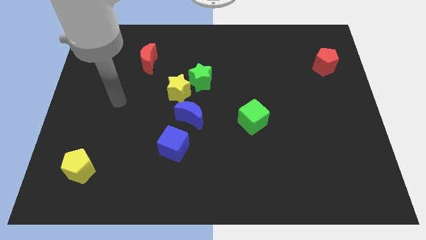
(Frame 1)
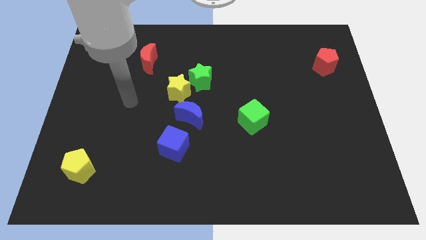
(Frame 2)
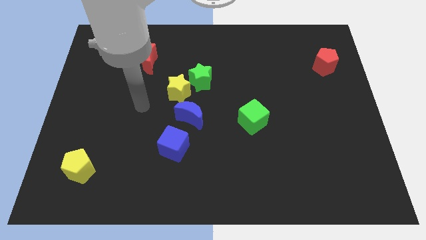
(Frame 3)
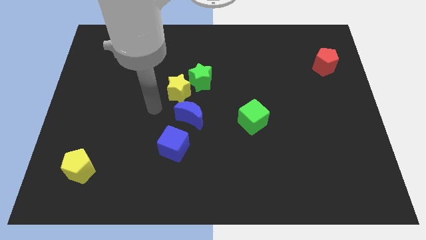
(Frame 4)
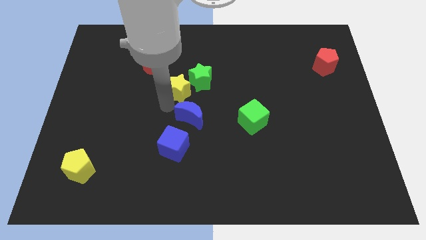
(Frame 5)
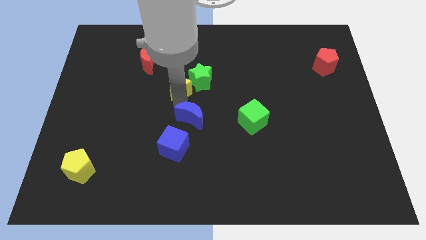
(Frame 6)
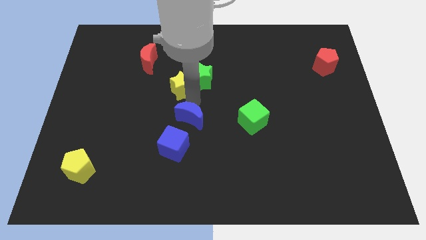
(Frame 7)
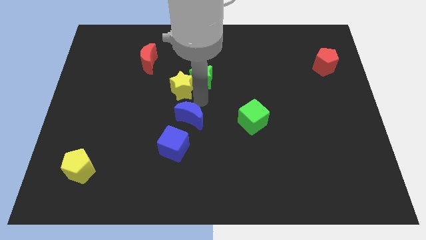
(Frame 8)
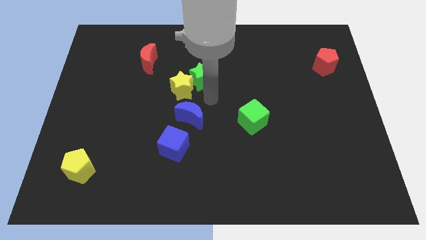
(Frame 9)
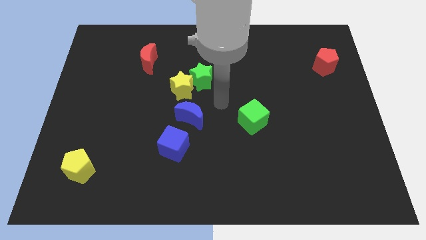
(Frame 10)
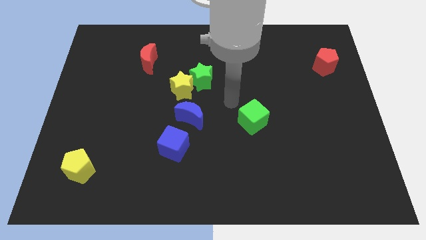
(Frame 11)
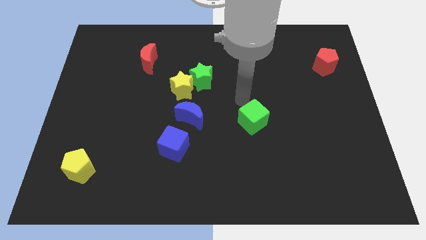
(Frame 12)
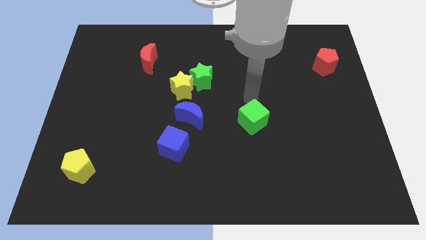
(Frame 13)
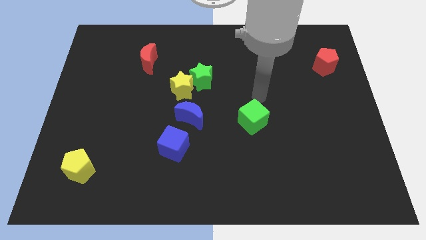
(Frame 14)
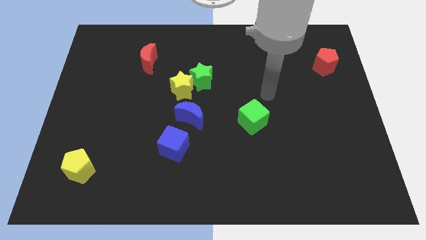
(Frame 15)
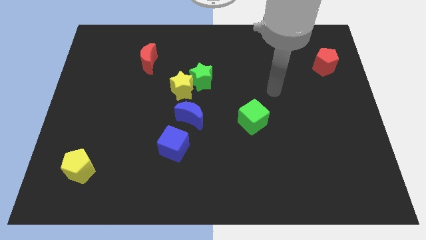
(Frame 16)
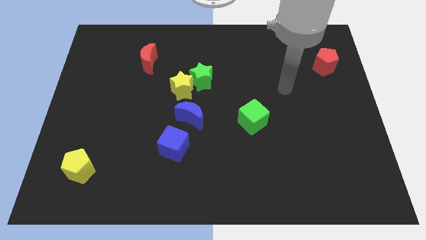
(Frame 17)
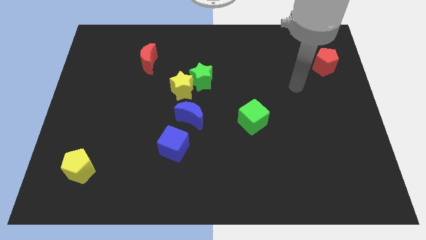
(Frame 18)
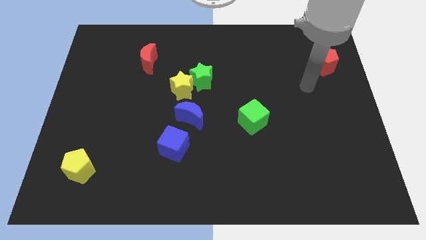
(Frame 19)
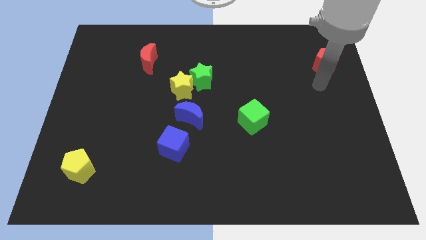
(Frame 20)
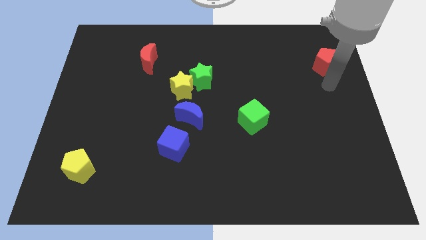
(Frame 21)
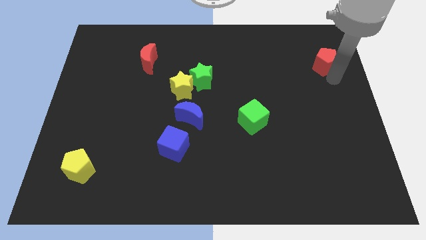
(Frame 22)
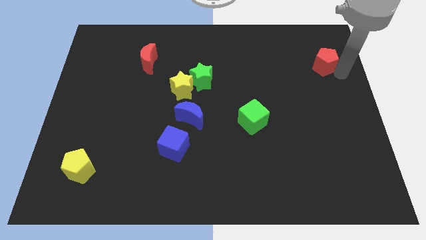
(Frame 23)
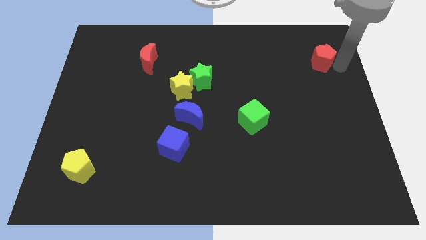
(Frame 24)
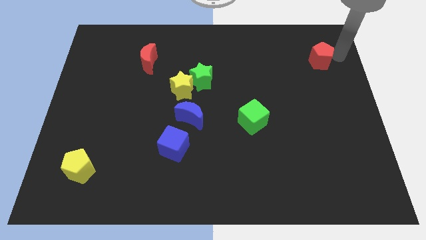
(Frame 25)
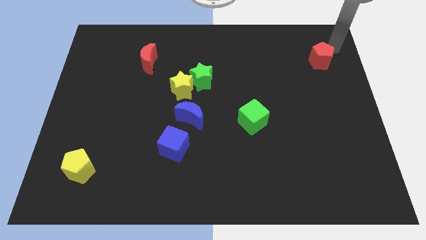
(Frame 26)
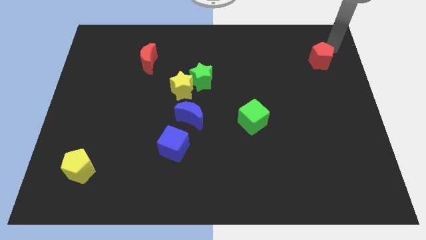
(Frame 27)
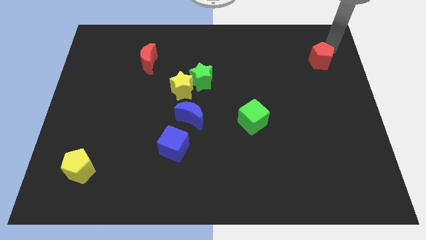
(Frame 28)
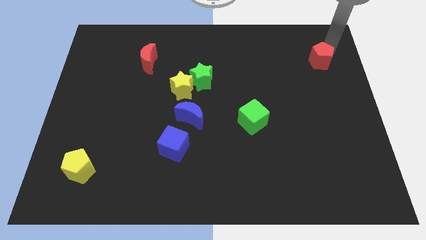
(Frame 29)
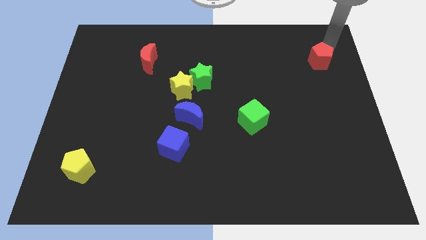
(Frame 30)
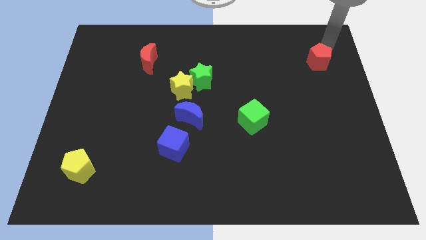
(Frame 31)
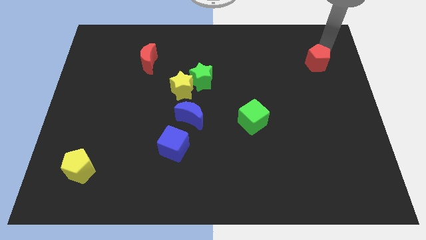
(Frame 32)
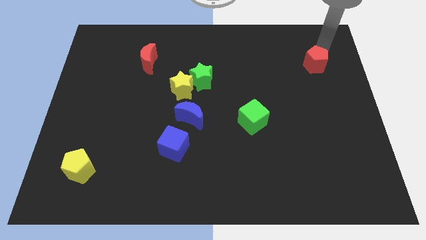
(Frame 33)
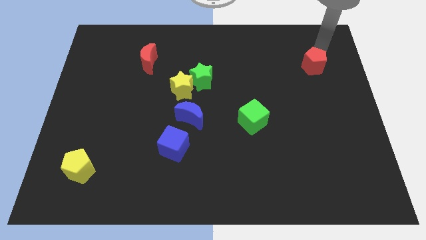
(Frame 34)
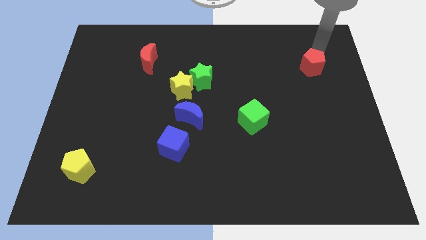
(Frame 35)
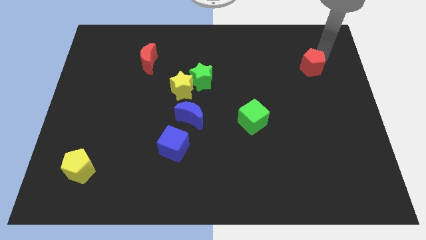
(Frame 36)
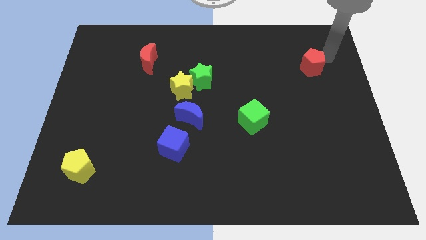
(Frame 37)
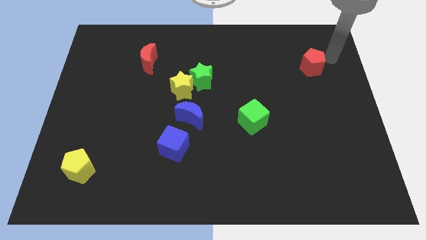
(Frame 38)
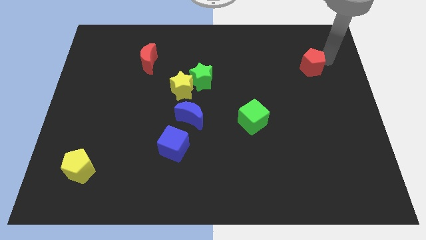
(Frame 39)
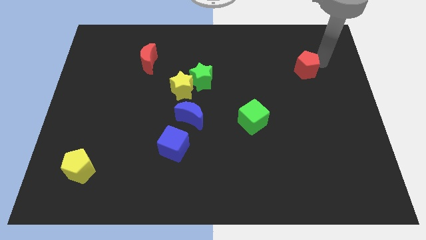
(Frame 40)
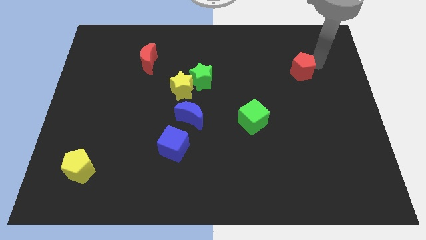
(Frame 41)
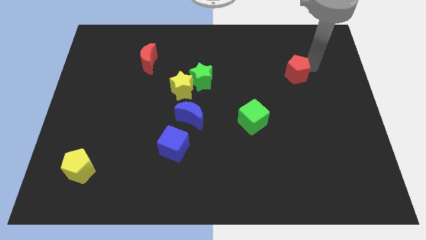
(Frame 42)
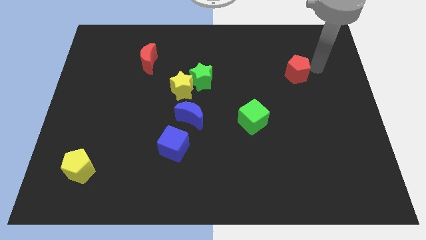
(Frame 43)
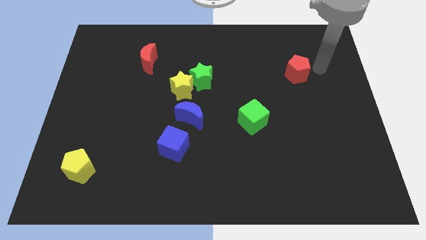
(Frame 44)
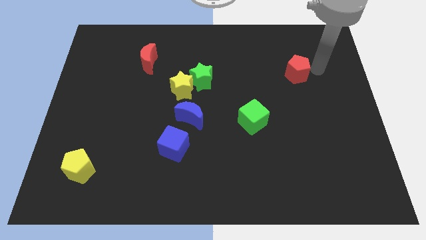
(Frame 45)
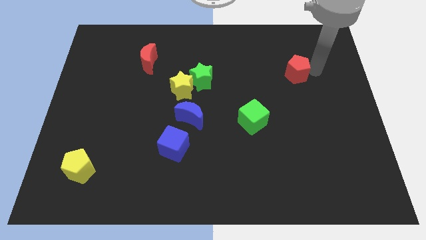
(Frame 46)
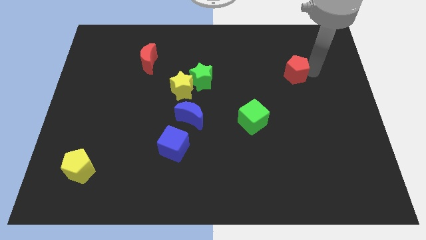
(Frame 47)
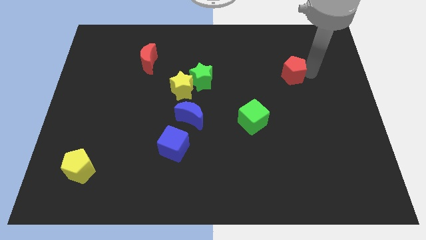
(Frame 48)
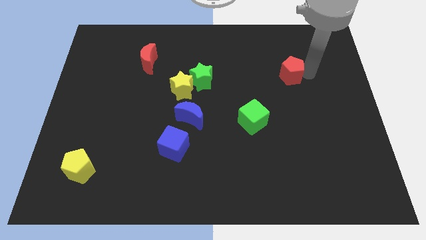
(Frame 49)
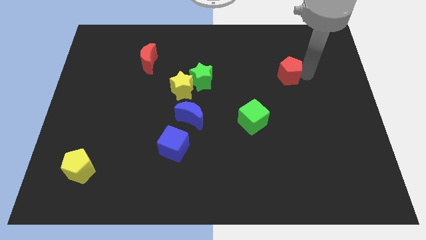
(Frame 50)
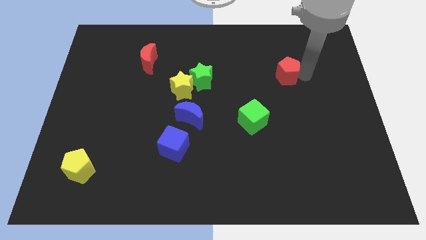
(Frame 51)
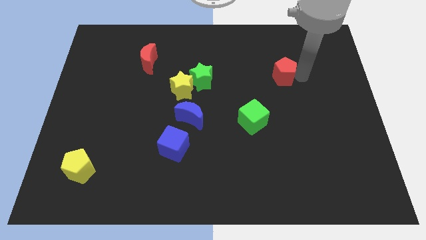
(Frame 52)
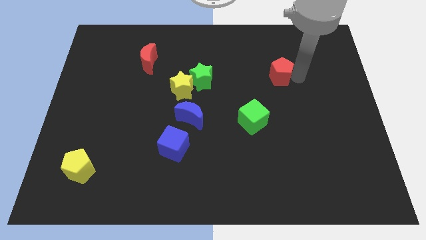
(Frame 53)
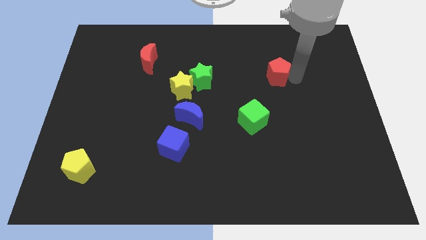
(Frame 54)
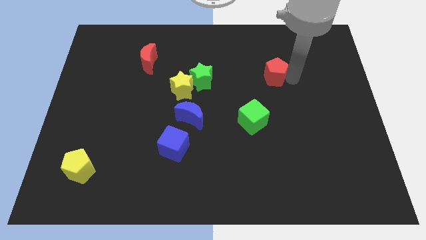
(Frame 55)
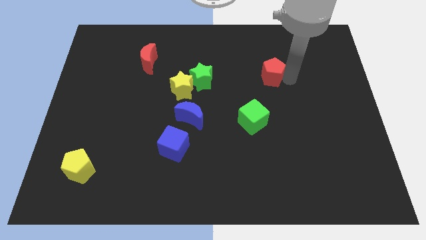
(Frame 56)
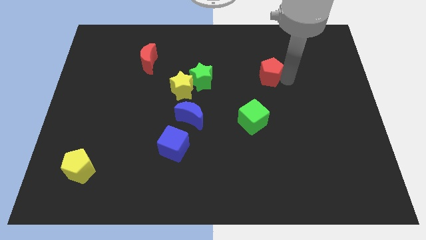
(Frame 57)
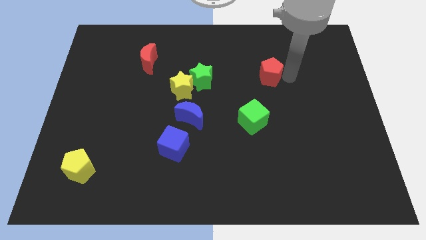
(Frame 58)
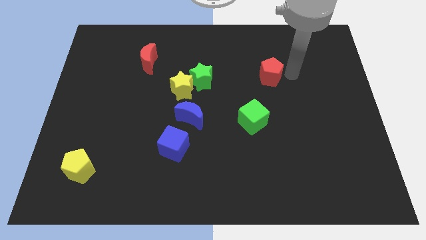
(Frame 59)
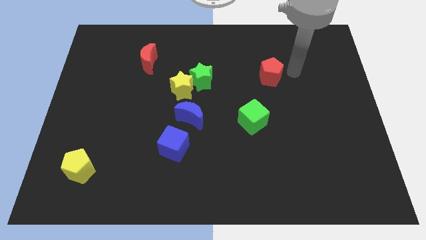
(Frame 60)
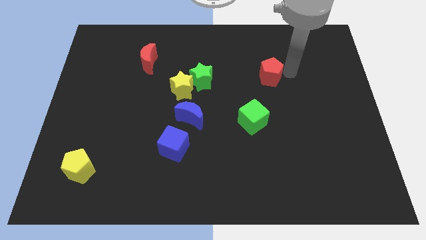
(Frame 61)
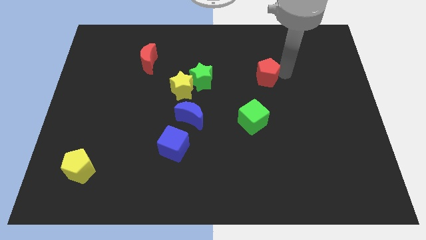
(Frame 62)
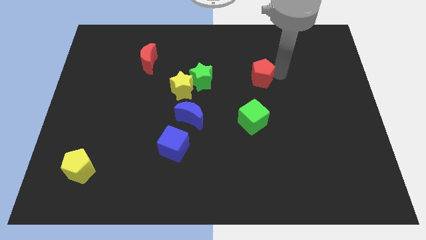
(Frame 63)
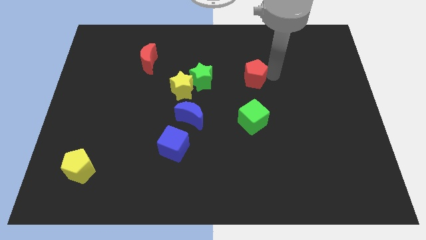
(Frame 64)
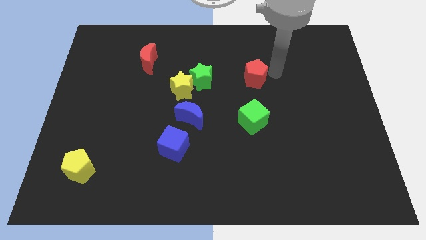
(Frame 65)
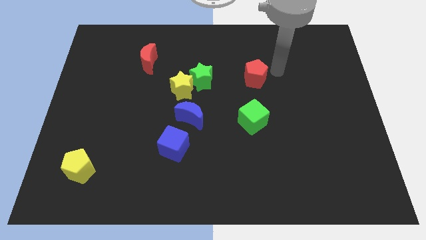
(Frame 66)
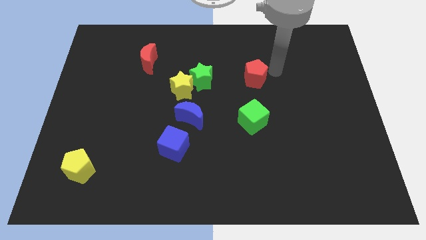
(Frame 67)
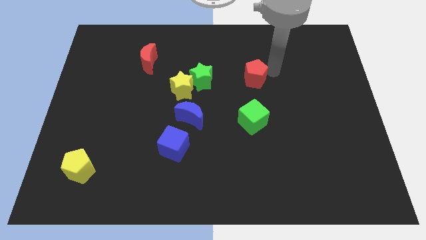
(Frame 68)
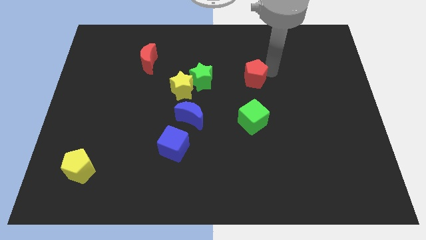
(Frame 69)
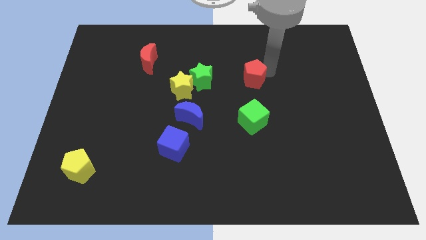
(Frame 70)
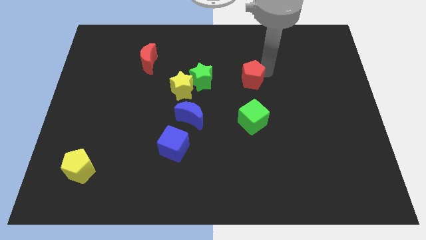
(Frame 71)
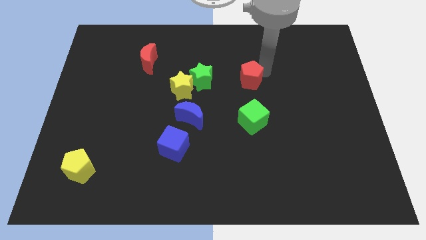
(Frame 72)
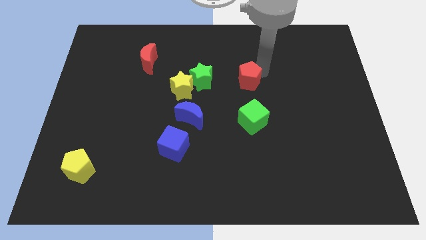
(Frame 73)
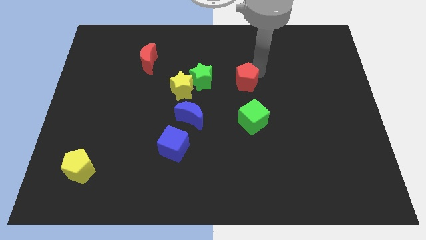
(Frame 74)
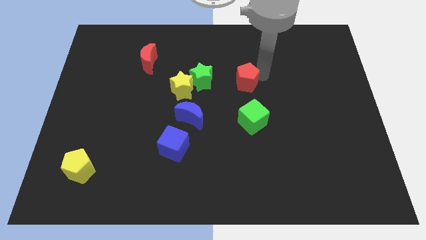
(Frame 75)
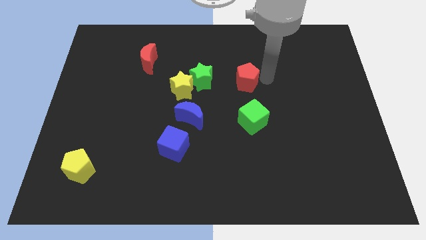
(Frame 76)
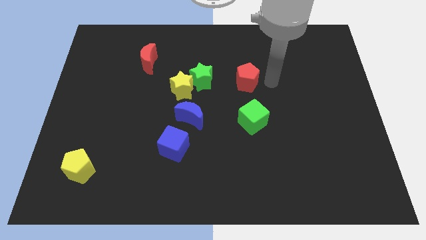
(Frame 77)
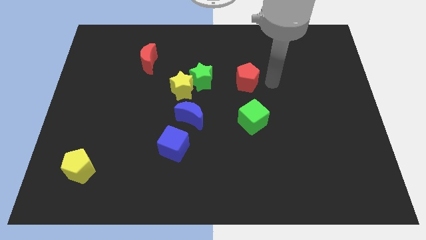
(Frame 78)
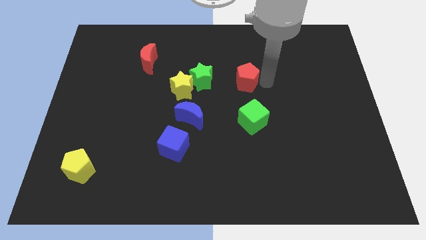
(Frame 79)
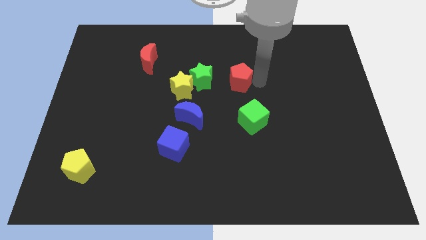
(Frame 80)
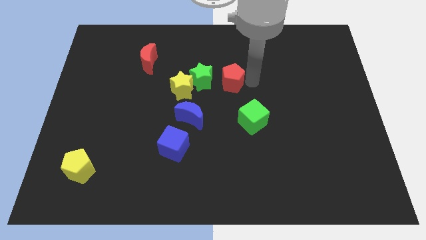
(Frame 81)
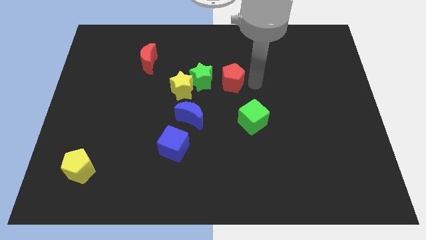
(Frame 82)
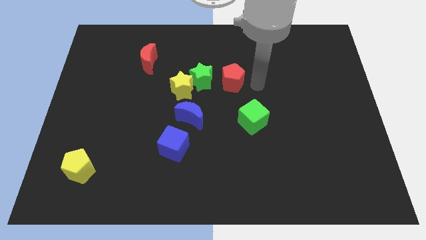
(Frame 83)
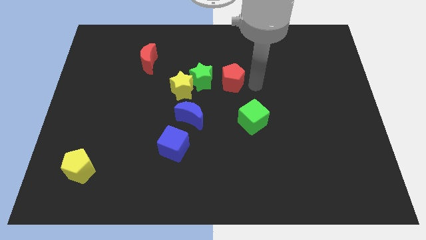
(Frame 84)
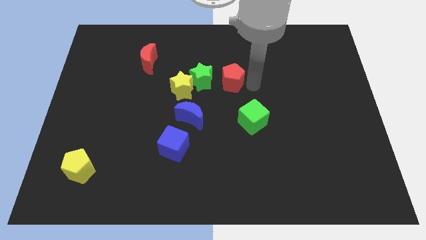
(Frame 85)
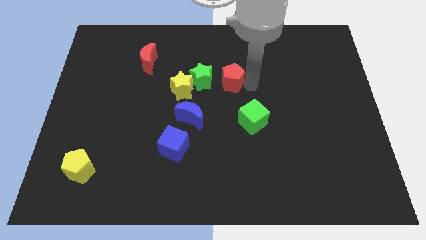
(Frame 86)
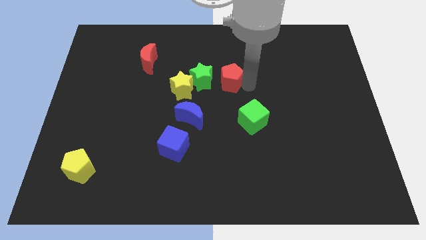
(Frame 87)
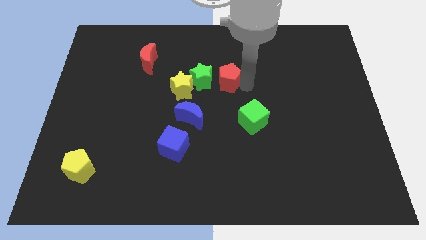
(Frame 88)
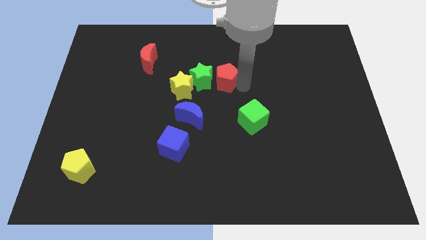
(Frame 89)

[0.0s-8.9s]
push the red pentagon towards the green star
